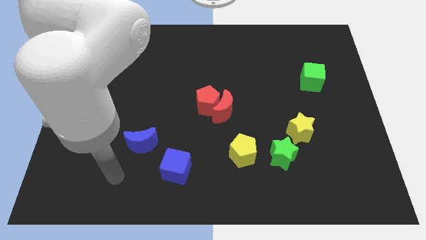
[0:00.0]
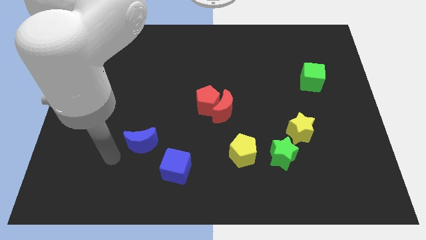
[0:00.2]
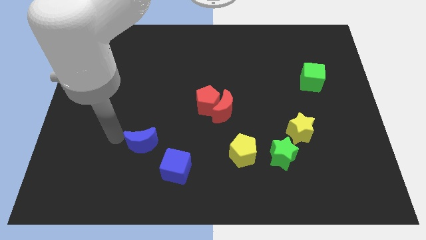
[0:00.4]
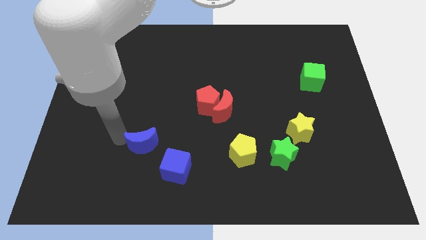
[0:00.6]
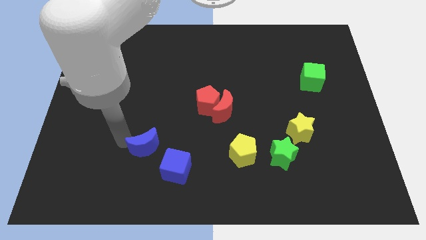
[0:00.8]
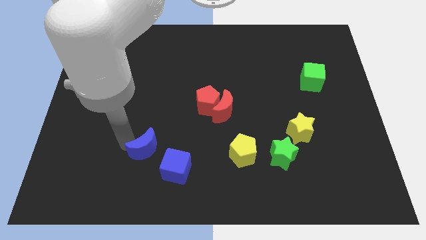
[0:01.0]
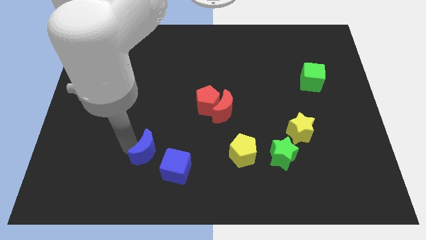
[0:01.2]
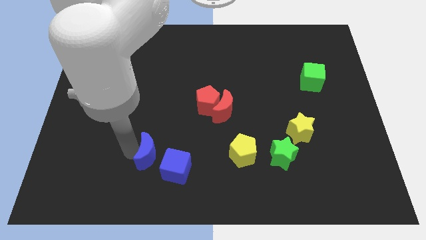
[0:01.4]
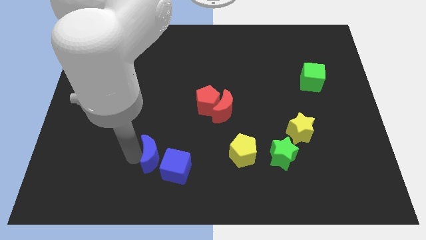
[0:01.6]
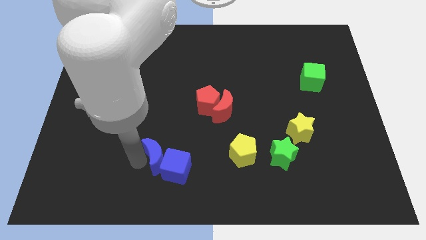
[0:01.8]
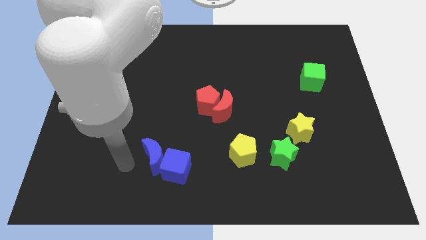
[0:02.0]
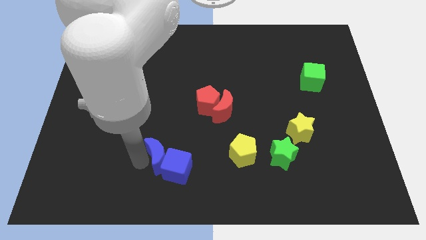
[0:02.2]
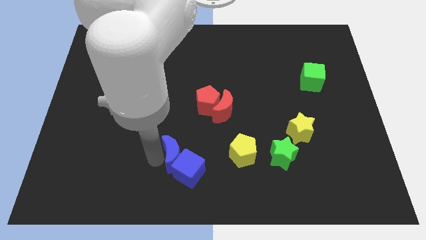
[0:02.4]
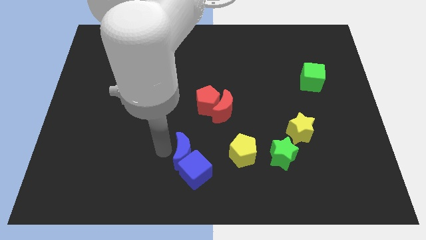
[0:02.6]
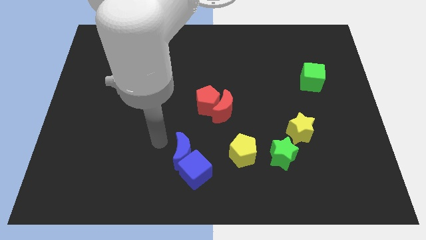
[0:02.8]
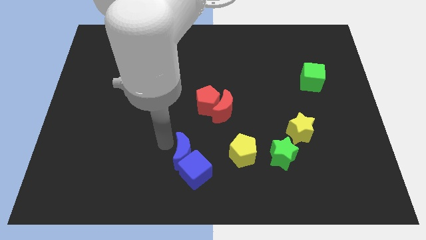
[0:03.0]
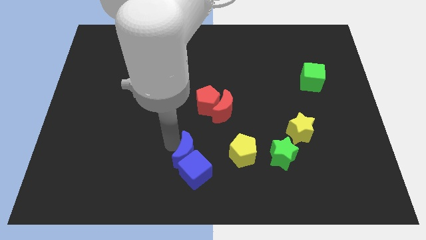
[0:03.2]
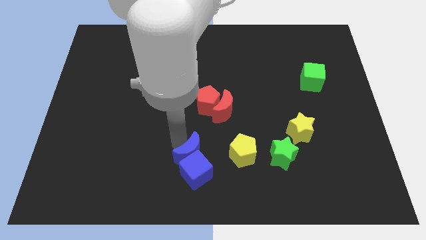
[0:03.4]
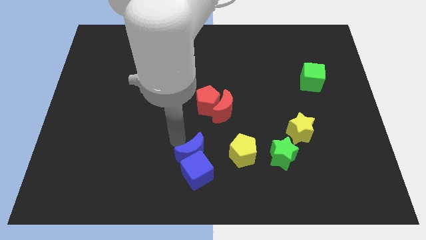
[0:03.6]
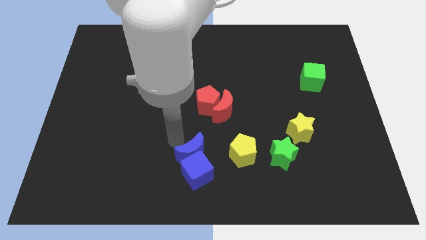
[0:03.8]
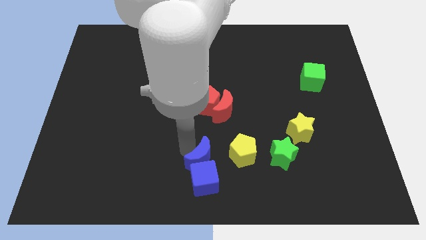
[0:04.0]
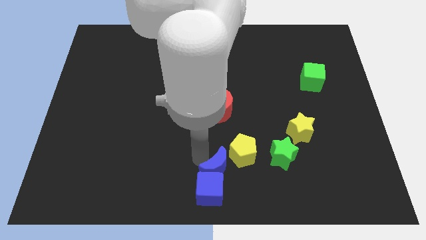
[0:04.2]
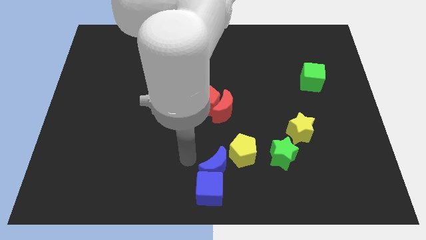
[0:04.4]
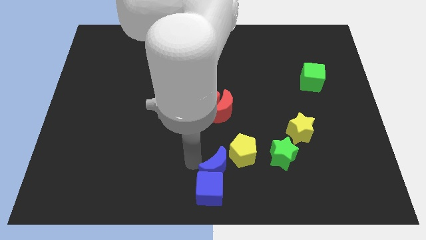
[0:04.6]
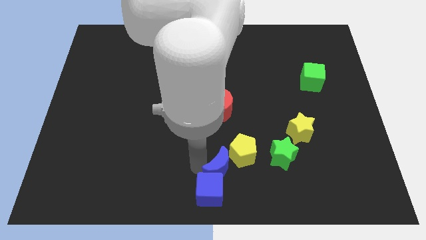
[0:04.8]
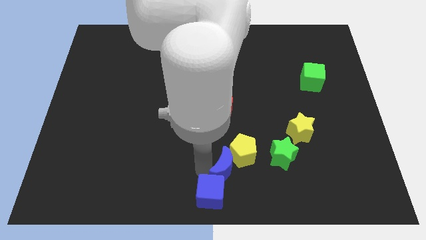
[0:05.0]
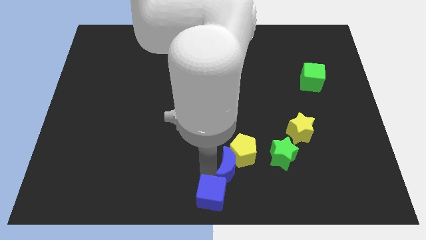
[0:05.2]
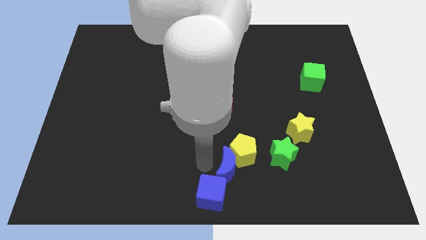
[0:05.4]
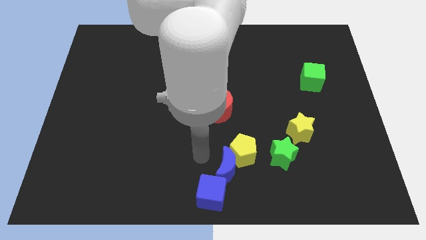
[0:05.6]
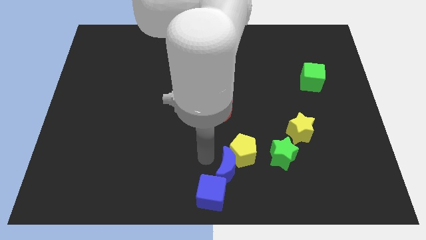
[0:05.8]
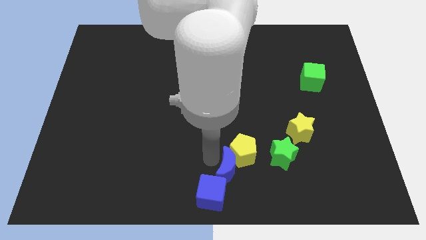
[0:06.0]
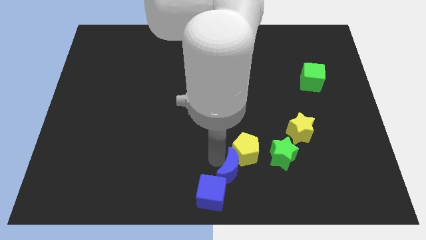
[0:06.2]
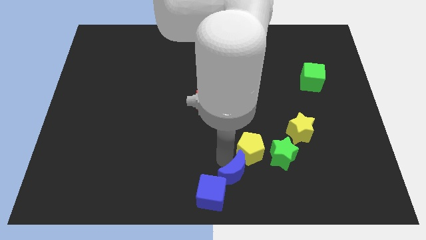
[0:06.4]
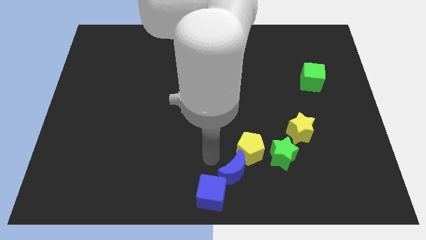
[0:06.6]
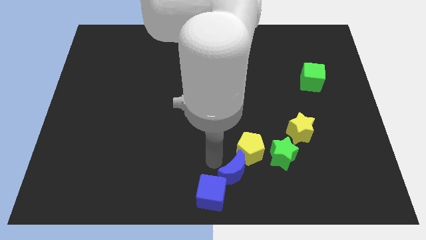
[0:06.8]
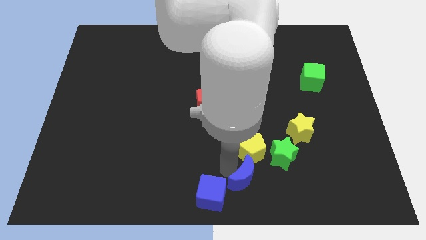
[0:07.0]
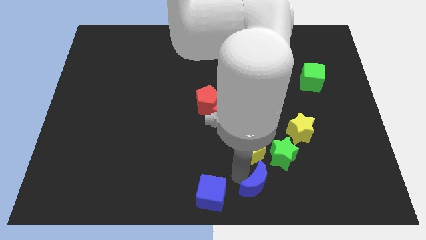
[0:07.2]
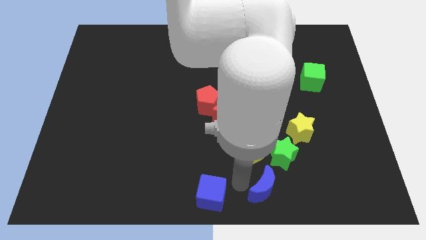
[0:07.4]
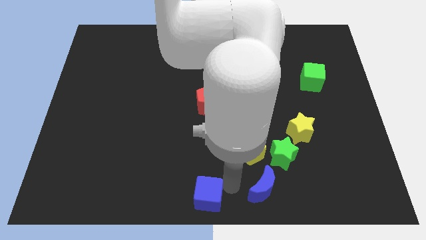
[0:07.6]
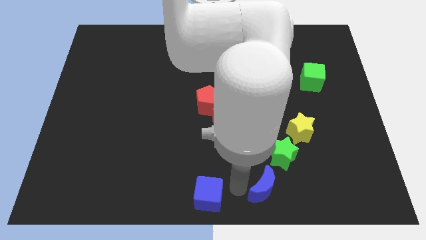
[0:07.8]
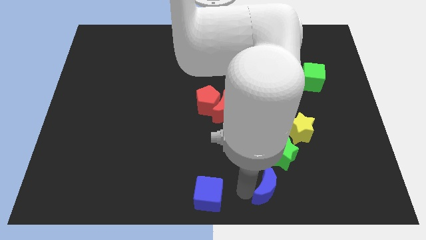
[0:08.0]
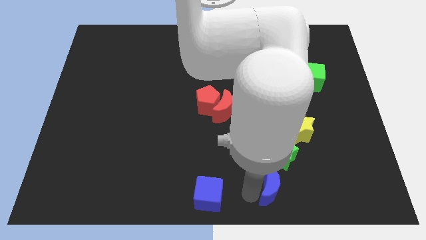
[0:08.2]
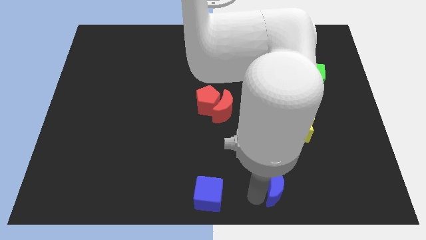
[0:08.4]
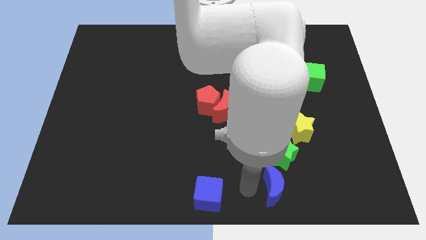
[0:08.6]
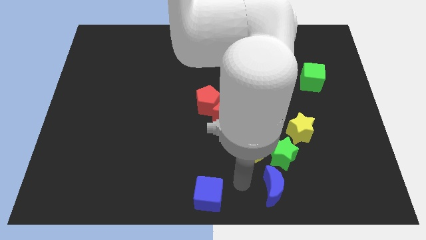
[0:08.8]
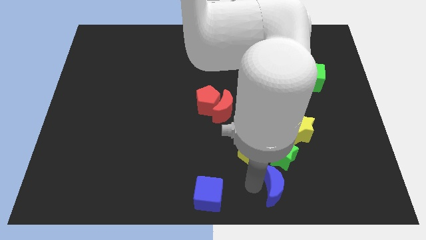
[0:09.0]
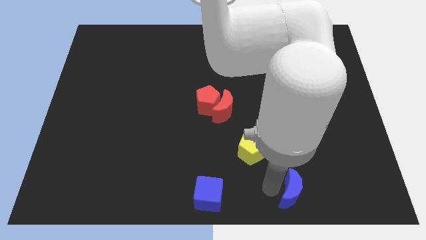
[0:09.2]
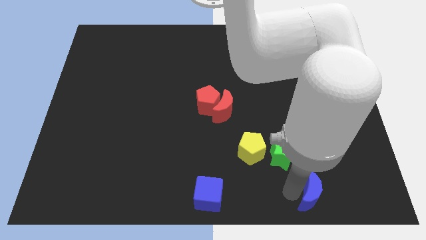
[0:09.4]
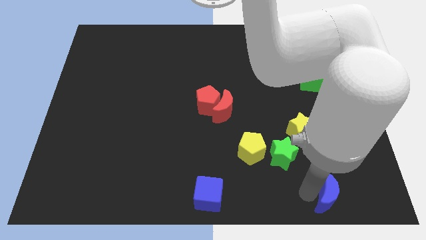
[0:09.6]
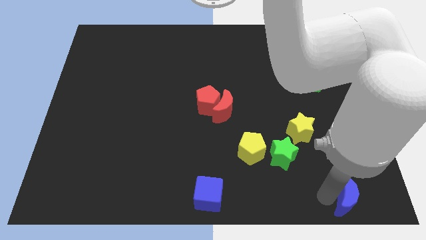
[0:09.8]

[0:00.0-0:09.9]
push the blue moon to the bottom right corner
